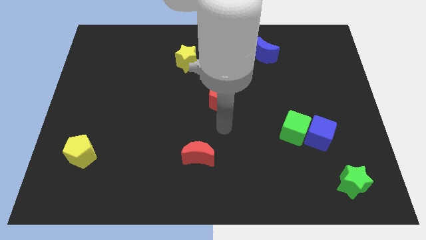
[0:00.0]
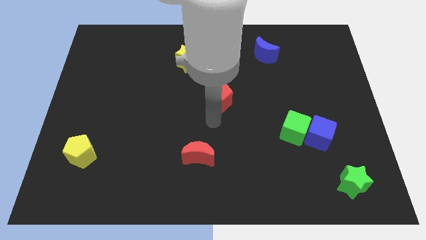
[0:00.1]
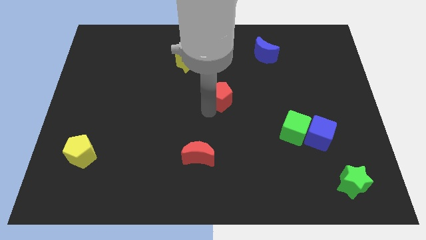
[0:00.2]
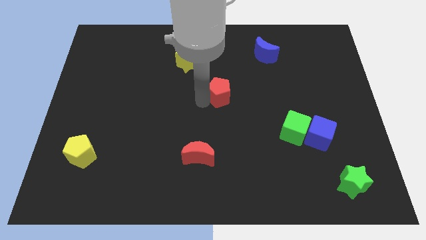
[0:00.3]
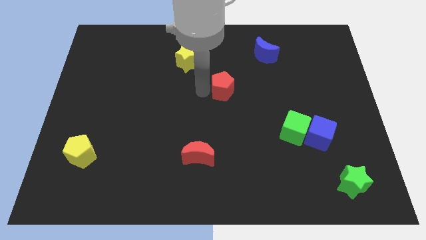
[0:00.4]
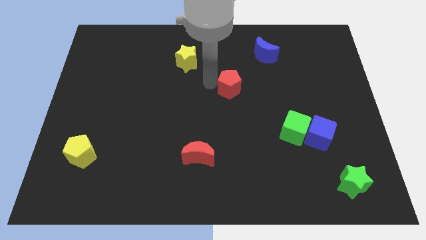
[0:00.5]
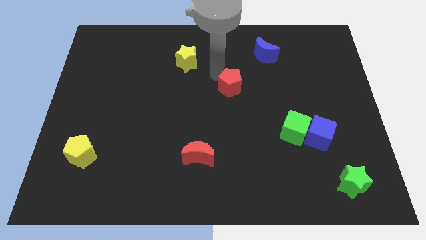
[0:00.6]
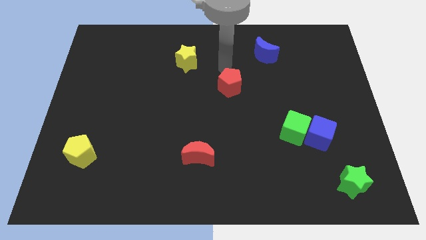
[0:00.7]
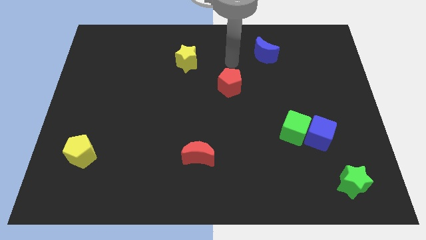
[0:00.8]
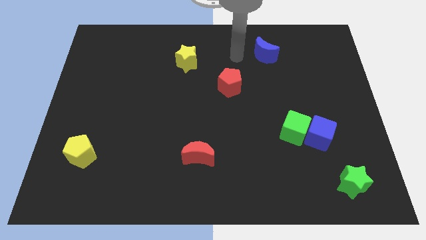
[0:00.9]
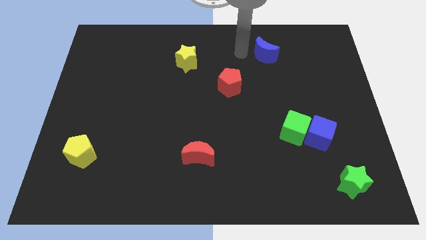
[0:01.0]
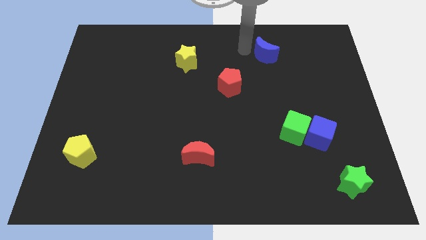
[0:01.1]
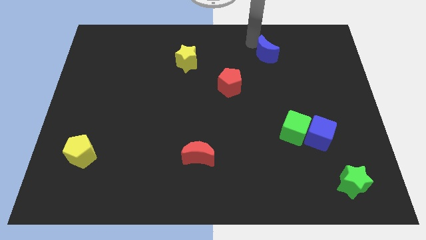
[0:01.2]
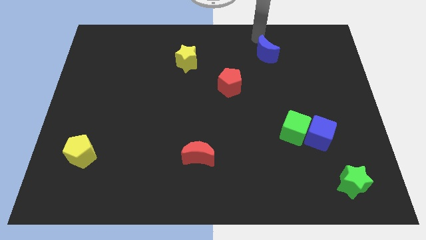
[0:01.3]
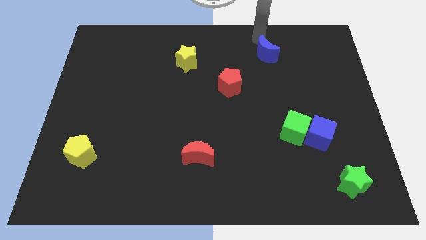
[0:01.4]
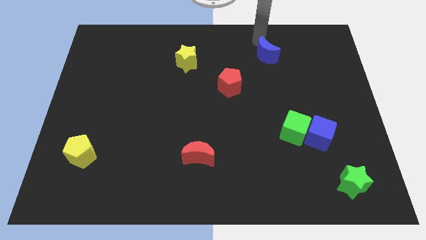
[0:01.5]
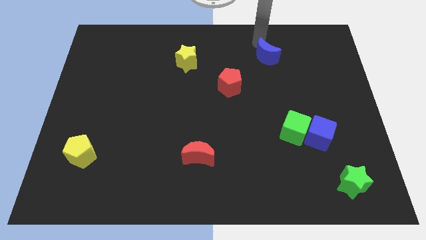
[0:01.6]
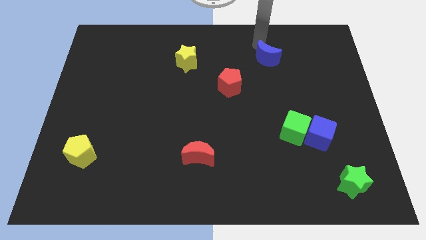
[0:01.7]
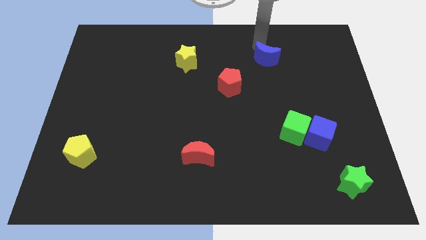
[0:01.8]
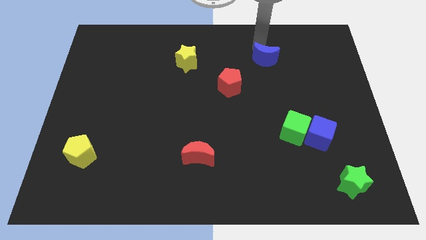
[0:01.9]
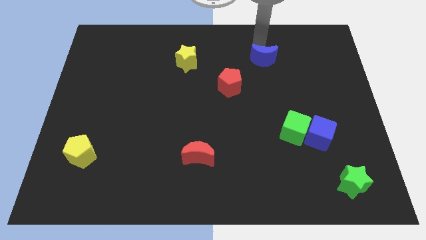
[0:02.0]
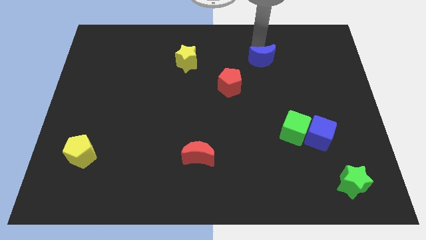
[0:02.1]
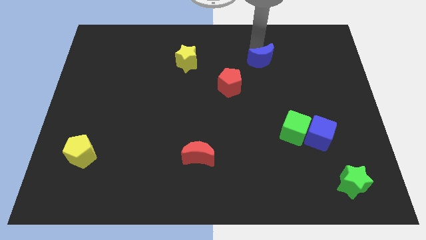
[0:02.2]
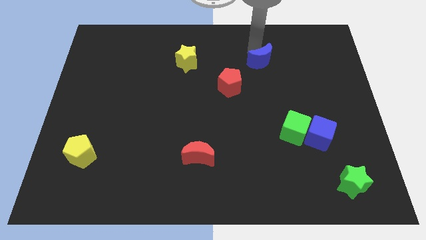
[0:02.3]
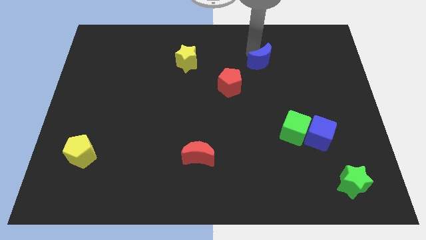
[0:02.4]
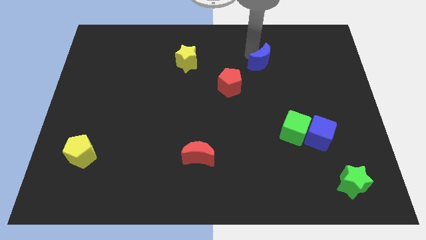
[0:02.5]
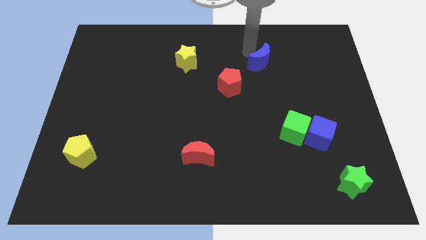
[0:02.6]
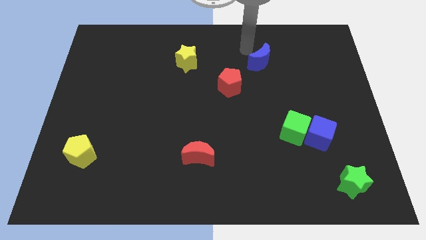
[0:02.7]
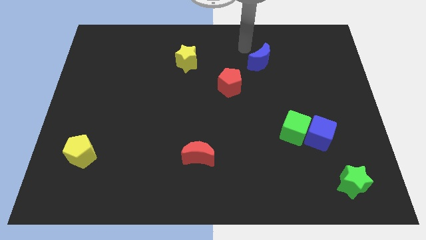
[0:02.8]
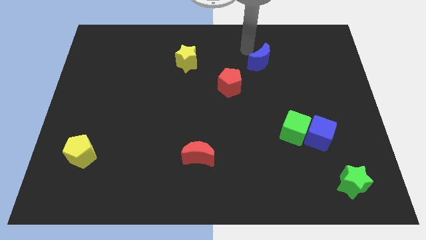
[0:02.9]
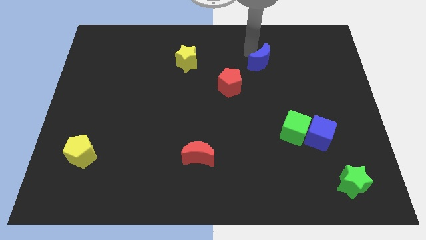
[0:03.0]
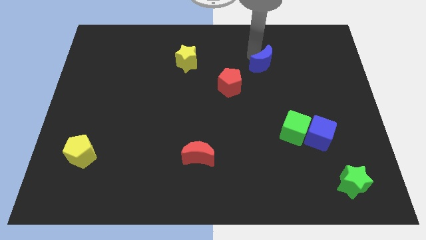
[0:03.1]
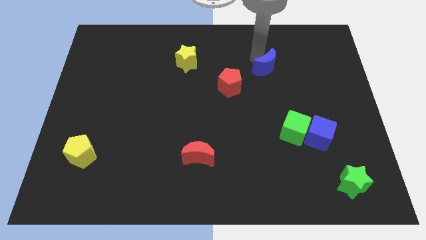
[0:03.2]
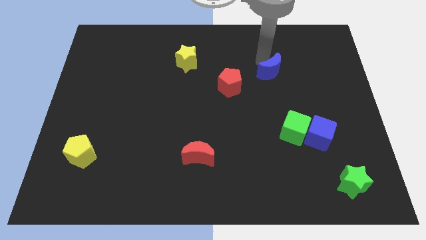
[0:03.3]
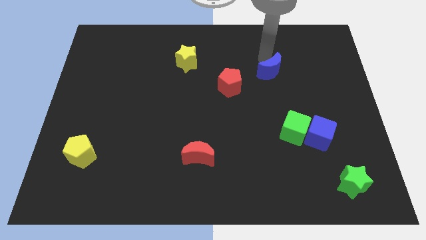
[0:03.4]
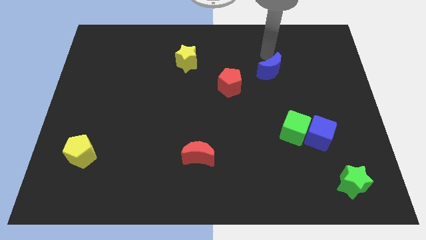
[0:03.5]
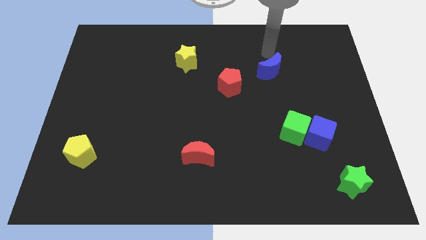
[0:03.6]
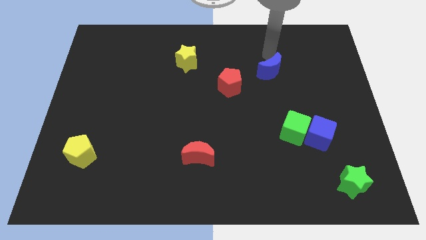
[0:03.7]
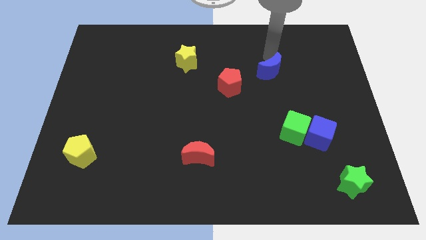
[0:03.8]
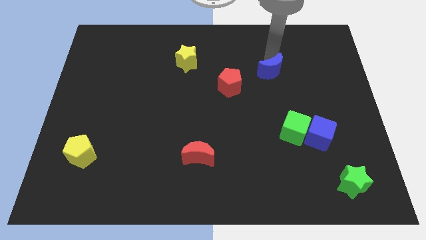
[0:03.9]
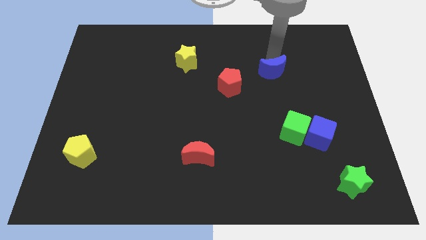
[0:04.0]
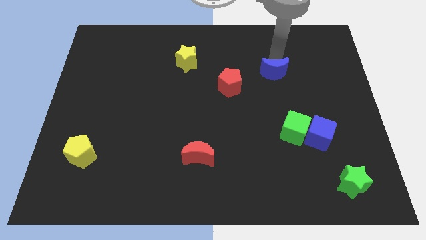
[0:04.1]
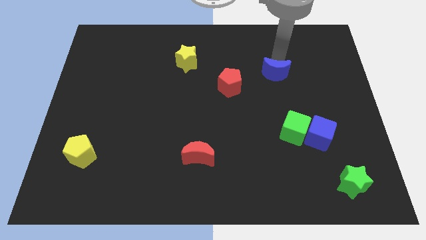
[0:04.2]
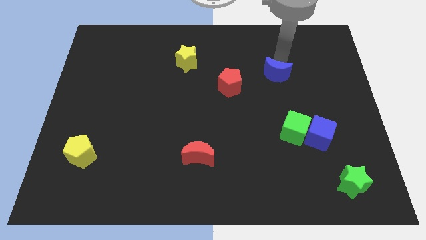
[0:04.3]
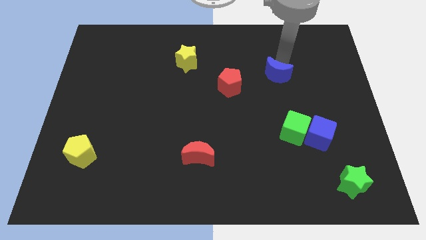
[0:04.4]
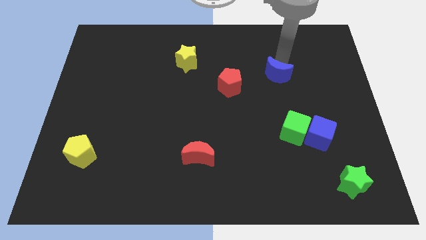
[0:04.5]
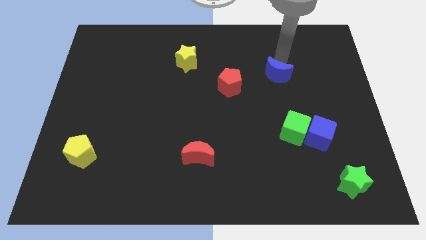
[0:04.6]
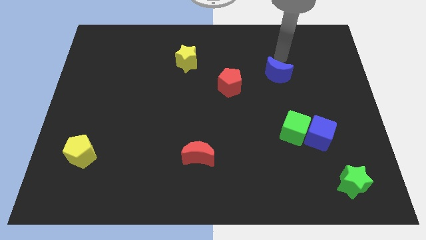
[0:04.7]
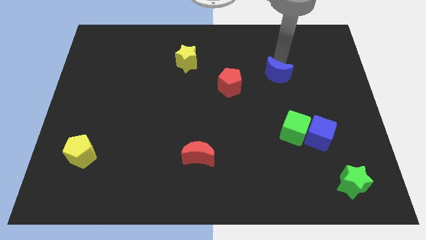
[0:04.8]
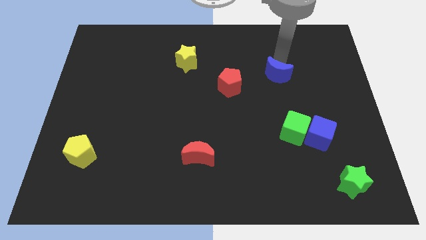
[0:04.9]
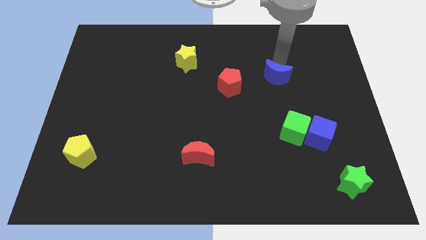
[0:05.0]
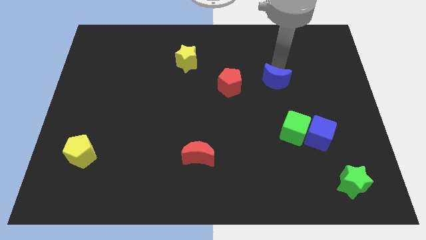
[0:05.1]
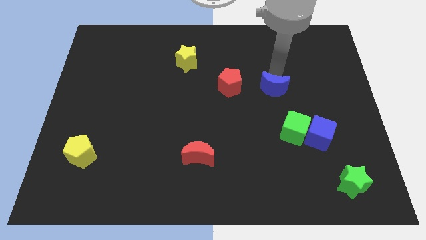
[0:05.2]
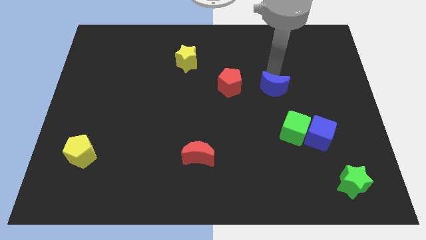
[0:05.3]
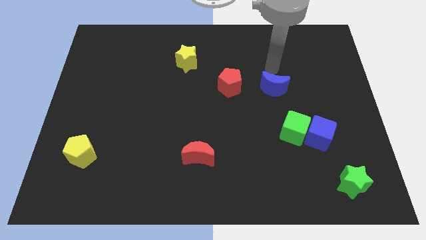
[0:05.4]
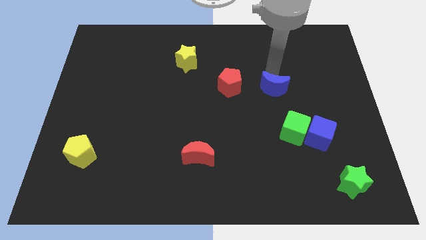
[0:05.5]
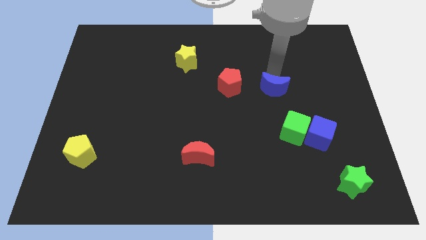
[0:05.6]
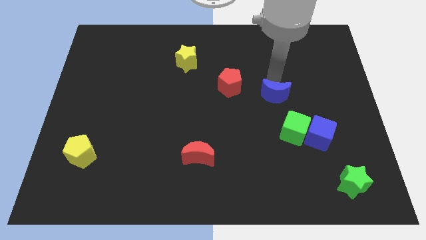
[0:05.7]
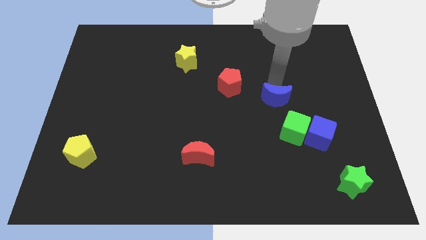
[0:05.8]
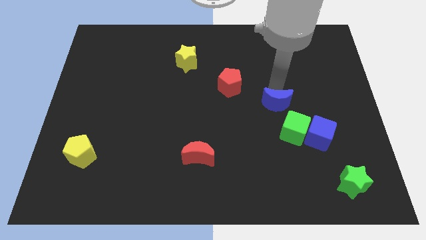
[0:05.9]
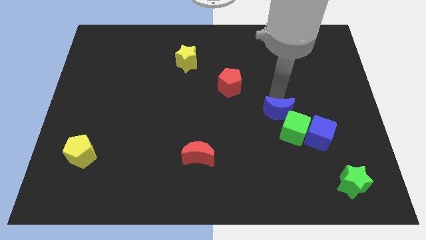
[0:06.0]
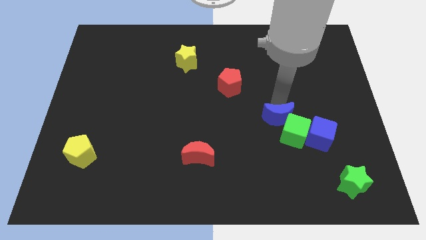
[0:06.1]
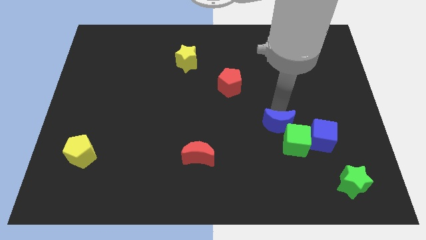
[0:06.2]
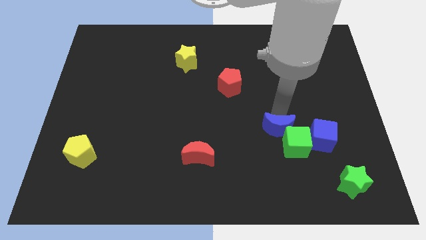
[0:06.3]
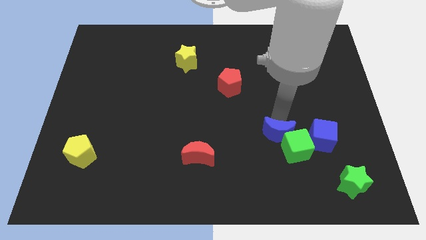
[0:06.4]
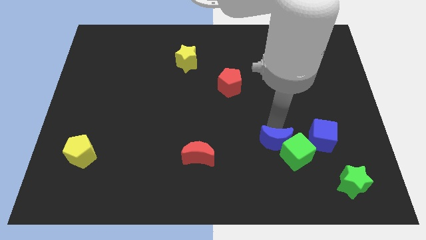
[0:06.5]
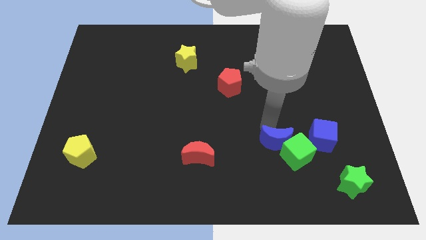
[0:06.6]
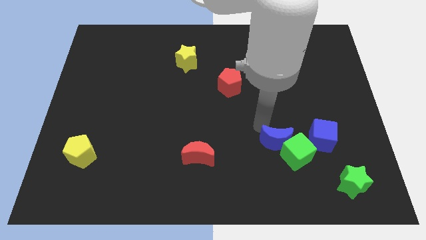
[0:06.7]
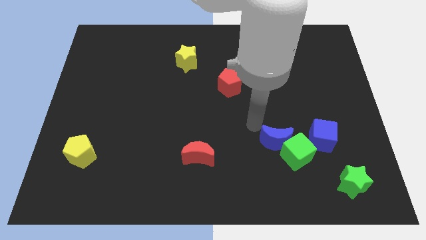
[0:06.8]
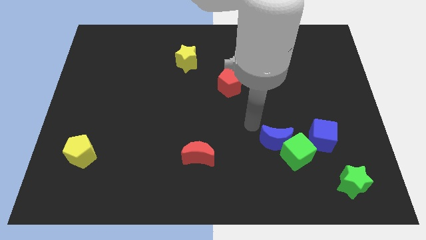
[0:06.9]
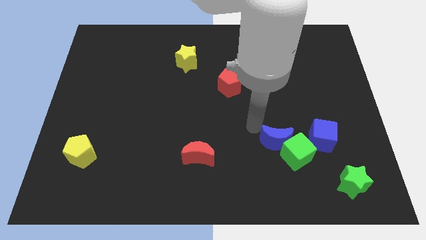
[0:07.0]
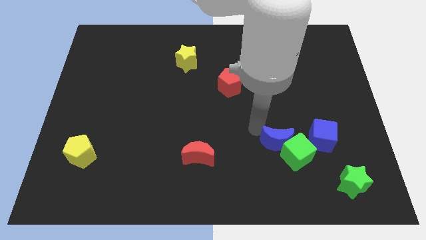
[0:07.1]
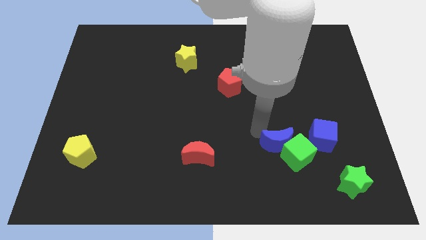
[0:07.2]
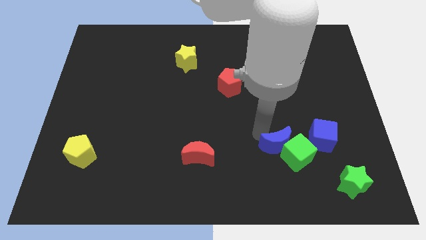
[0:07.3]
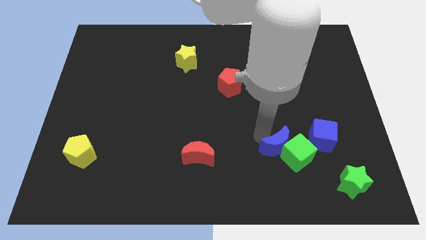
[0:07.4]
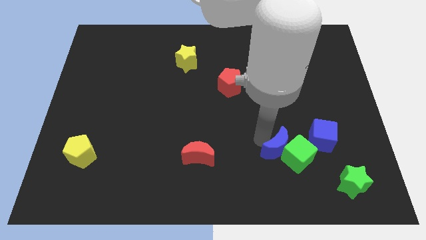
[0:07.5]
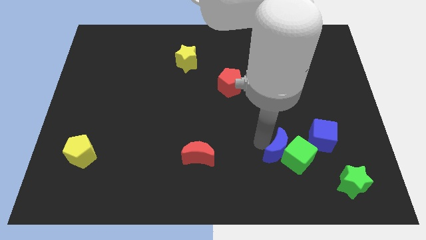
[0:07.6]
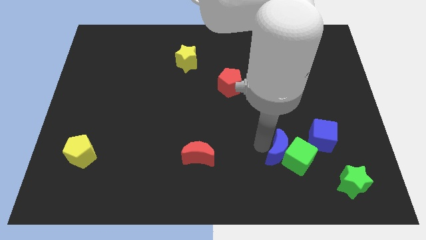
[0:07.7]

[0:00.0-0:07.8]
slide the blue moon to the bottom left side of the blue cube
